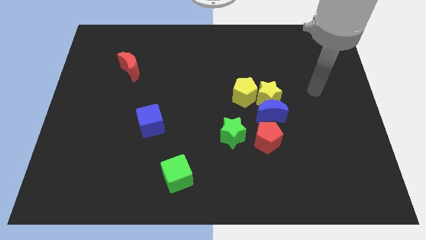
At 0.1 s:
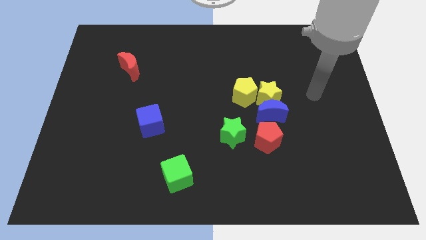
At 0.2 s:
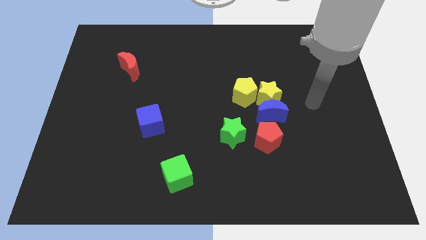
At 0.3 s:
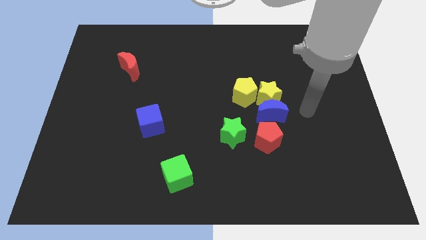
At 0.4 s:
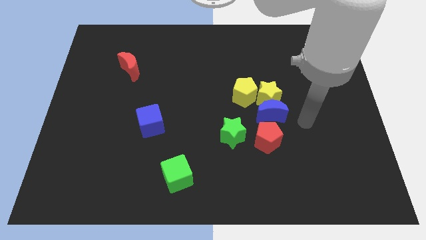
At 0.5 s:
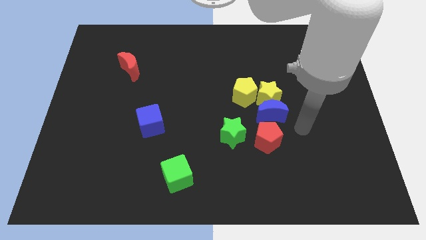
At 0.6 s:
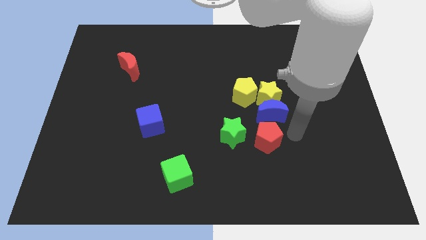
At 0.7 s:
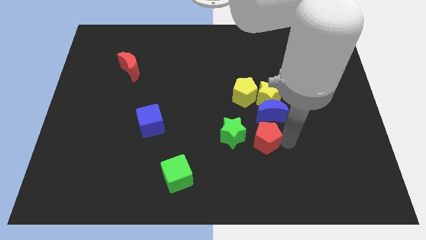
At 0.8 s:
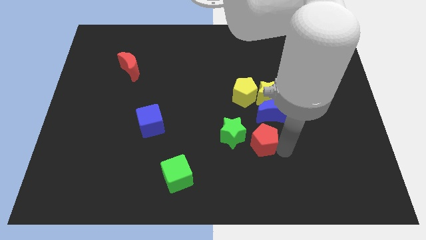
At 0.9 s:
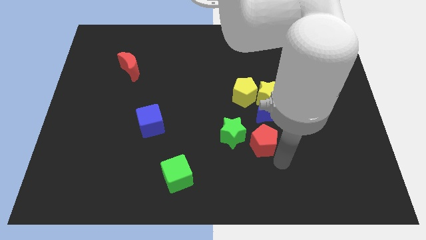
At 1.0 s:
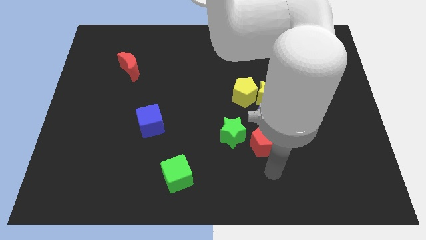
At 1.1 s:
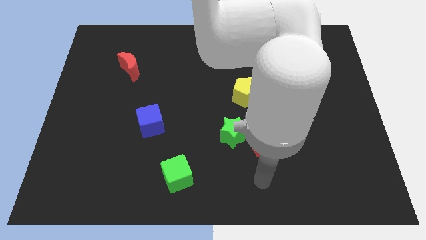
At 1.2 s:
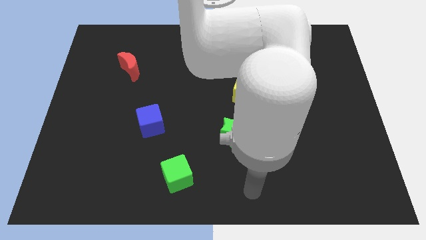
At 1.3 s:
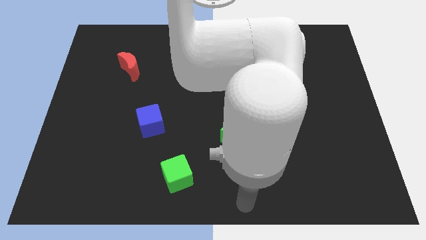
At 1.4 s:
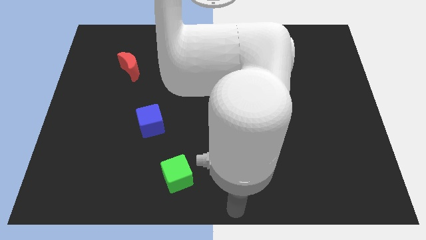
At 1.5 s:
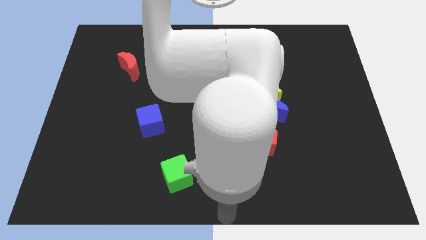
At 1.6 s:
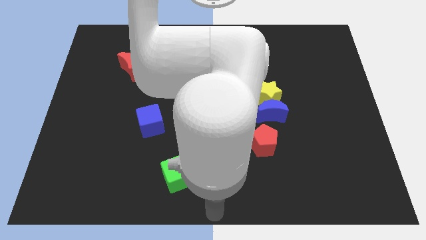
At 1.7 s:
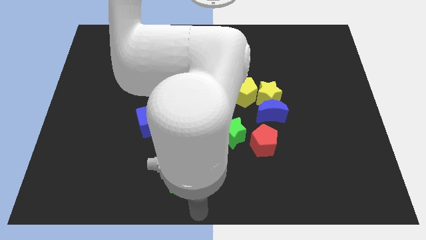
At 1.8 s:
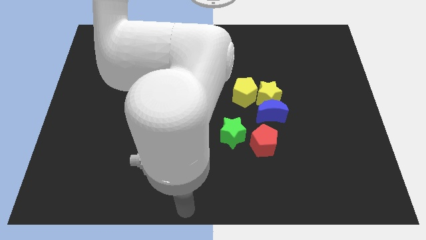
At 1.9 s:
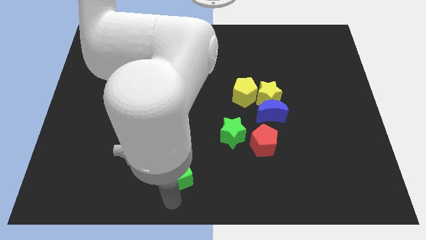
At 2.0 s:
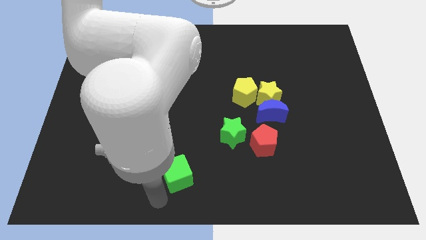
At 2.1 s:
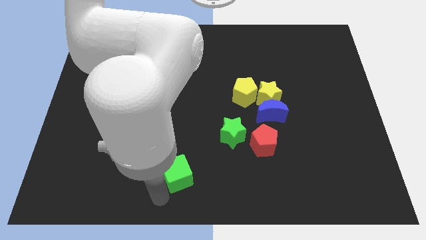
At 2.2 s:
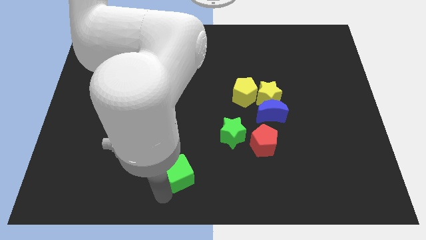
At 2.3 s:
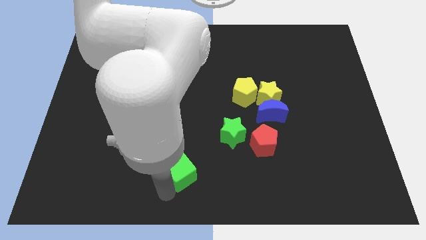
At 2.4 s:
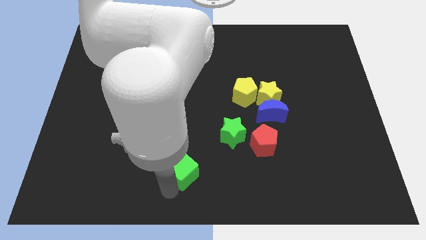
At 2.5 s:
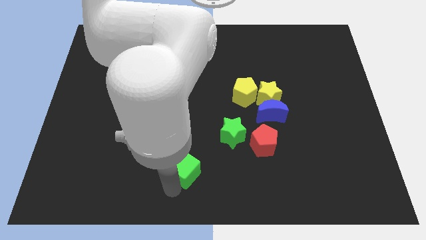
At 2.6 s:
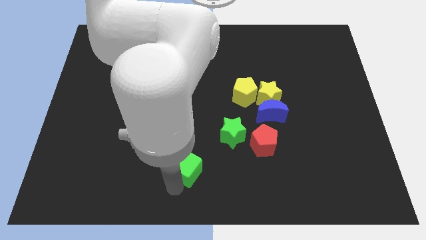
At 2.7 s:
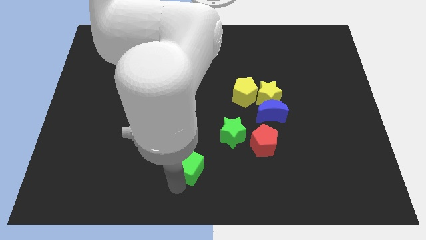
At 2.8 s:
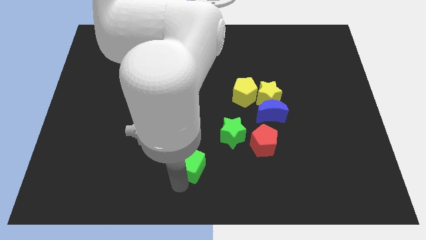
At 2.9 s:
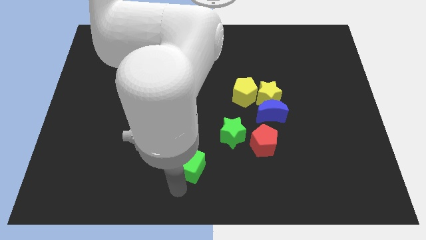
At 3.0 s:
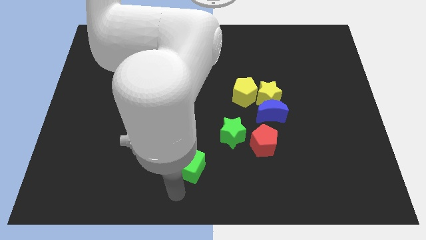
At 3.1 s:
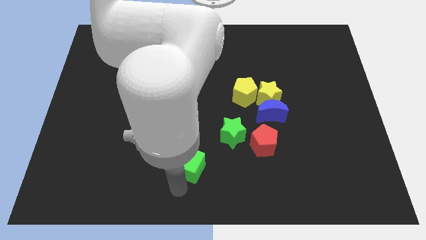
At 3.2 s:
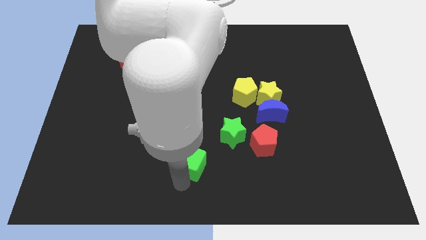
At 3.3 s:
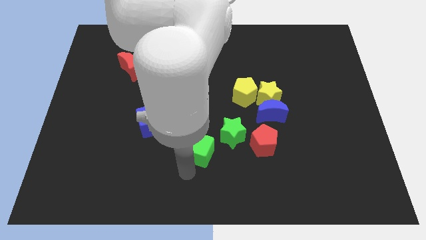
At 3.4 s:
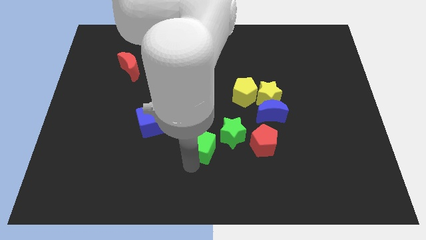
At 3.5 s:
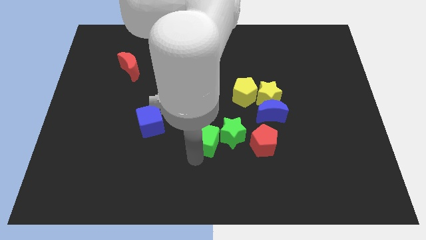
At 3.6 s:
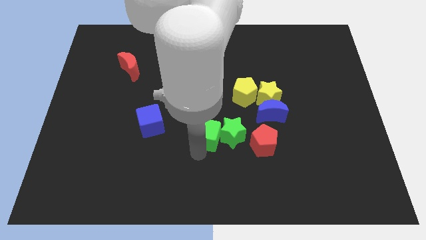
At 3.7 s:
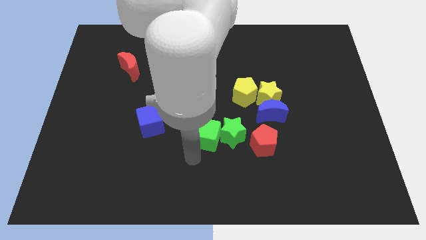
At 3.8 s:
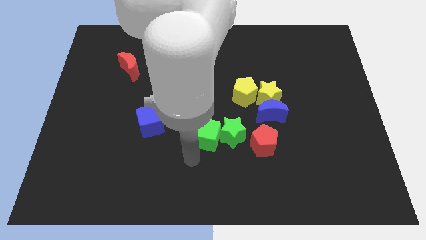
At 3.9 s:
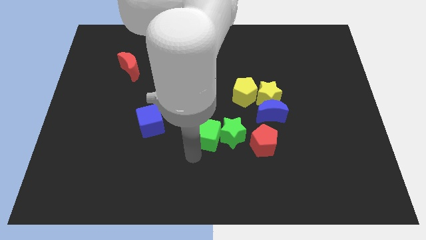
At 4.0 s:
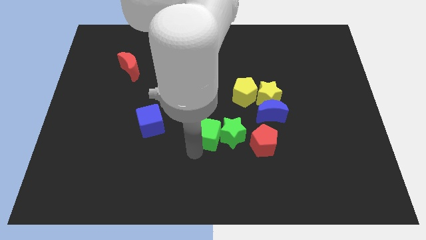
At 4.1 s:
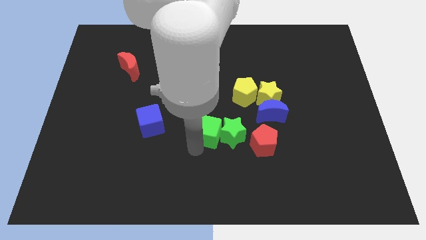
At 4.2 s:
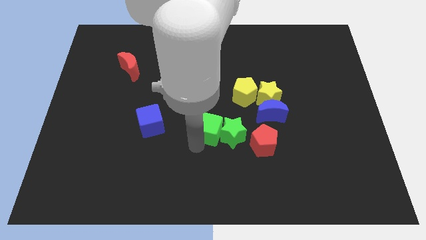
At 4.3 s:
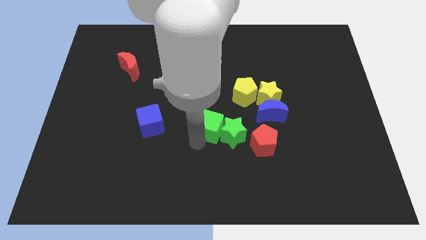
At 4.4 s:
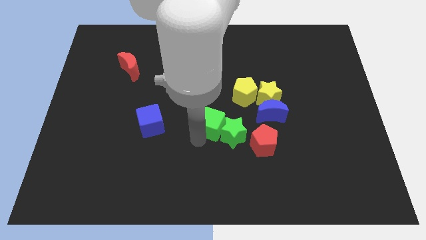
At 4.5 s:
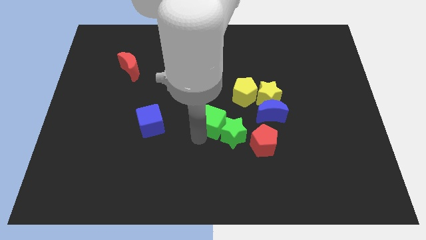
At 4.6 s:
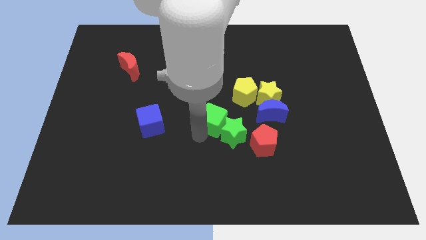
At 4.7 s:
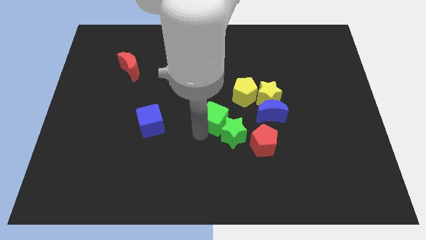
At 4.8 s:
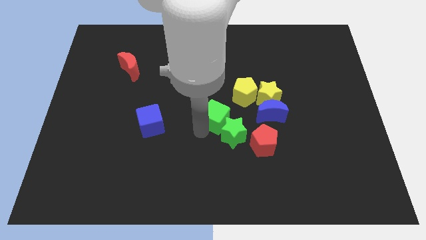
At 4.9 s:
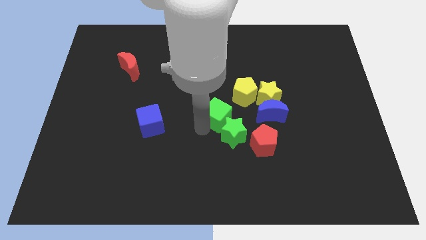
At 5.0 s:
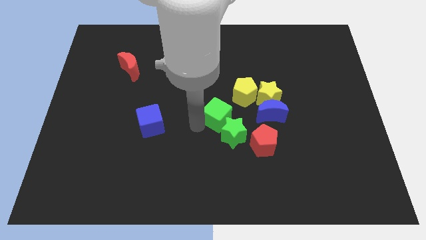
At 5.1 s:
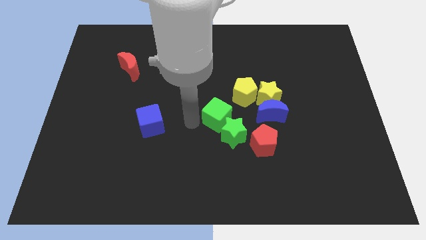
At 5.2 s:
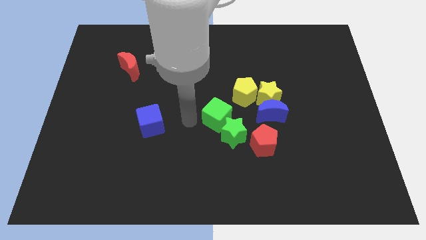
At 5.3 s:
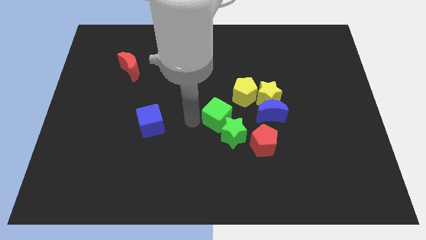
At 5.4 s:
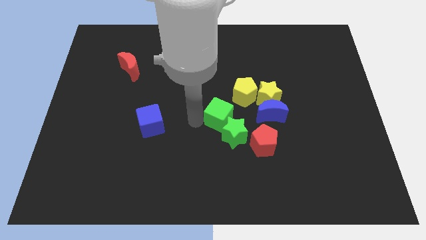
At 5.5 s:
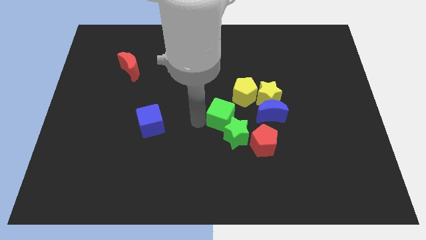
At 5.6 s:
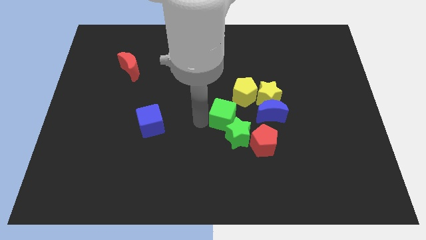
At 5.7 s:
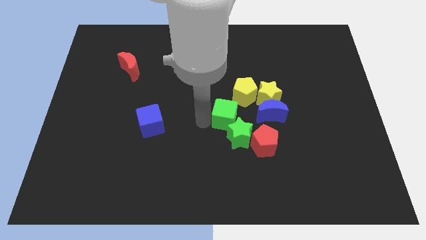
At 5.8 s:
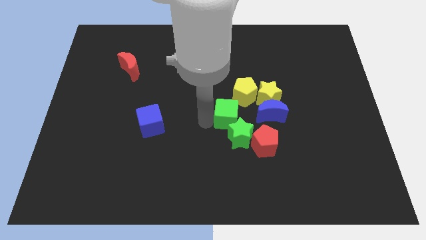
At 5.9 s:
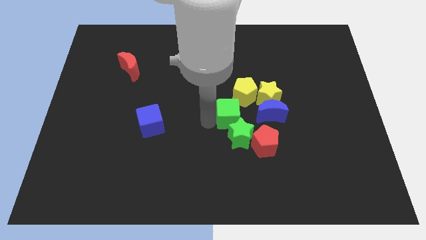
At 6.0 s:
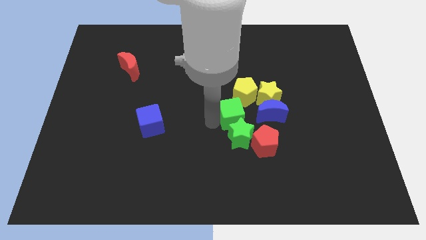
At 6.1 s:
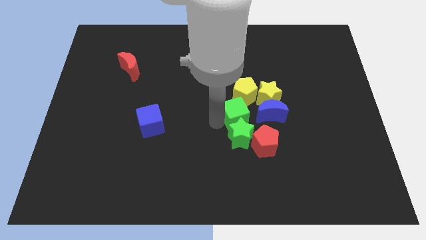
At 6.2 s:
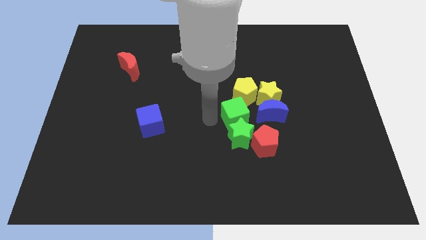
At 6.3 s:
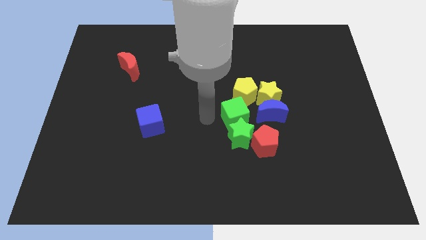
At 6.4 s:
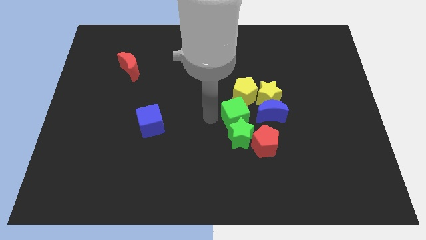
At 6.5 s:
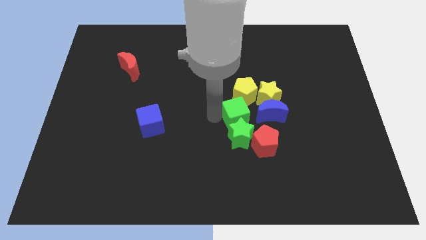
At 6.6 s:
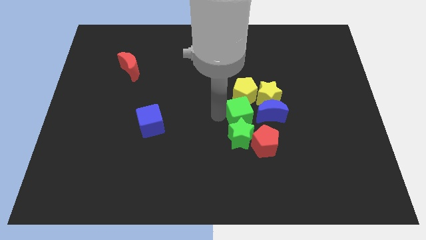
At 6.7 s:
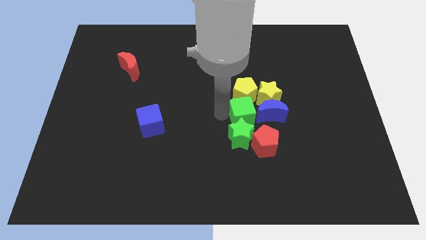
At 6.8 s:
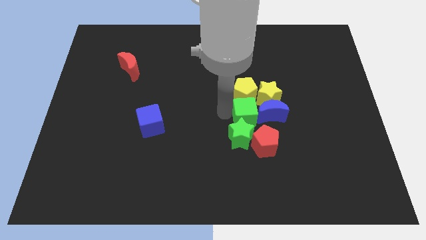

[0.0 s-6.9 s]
move the green cube next to the blue moon

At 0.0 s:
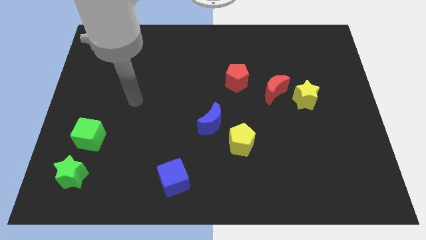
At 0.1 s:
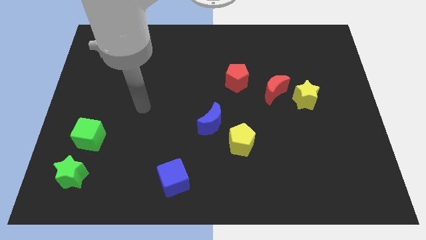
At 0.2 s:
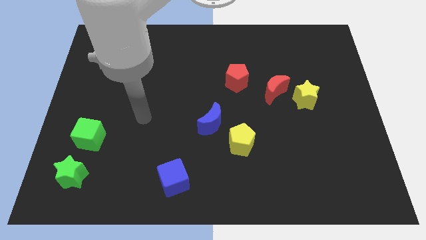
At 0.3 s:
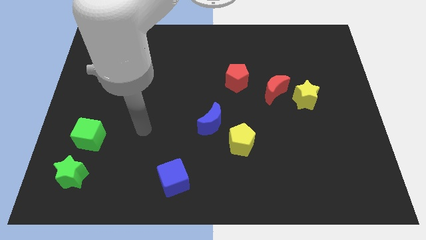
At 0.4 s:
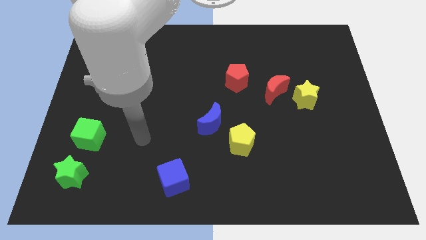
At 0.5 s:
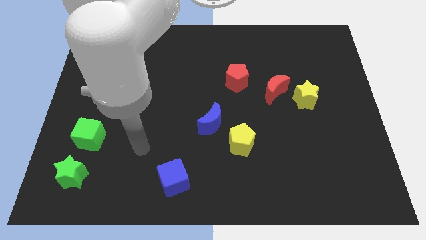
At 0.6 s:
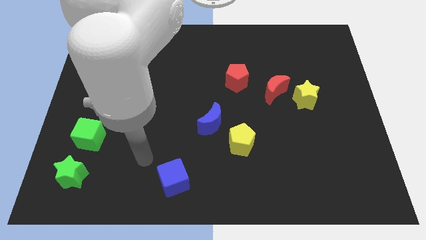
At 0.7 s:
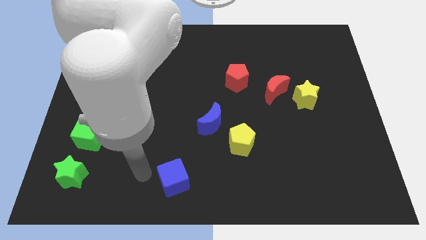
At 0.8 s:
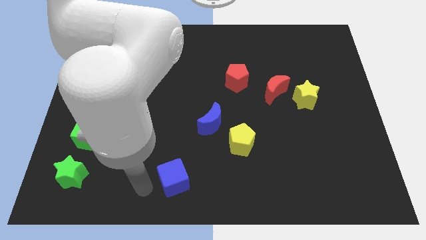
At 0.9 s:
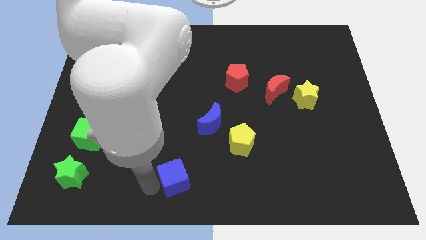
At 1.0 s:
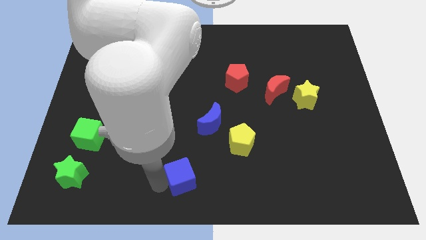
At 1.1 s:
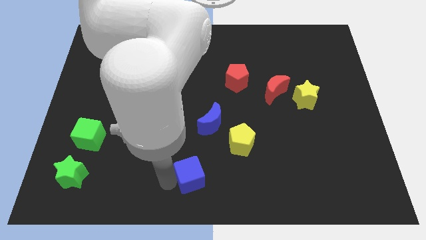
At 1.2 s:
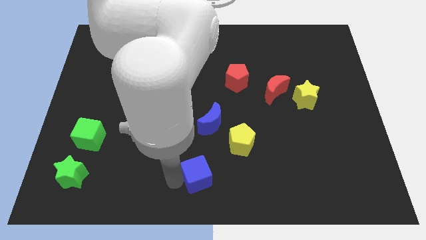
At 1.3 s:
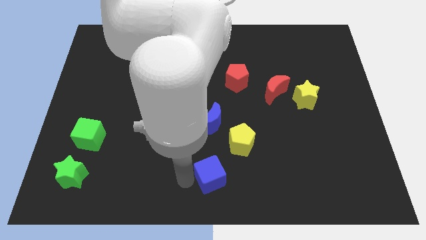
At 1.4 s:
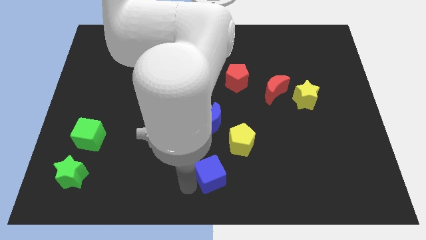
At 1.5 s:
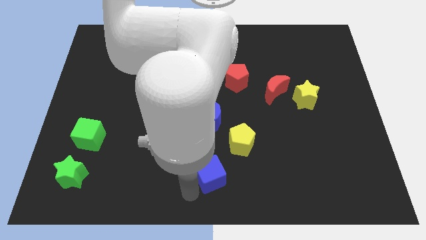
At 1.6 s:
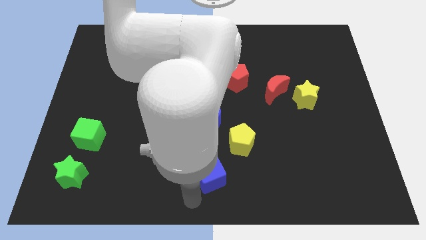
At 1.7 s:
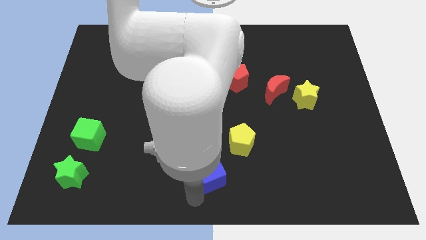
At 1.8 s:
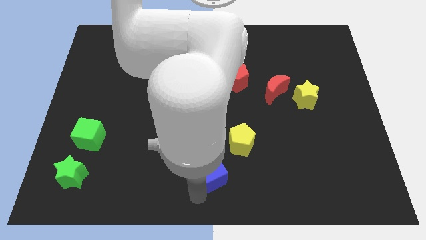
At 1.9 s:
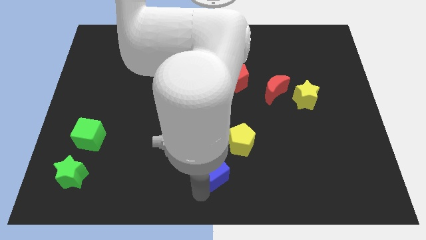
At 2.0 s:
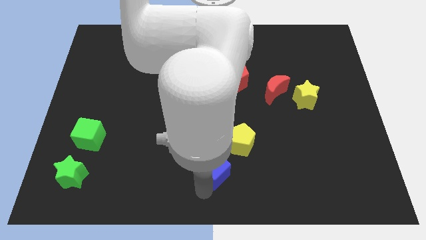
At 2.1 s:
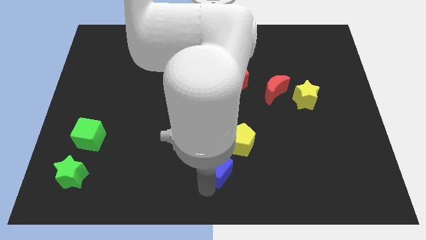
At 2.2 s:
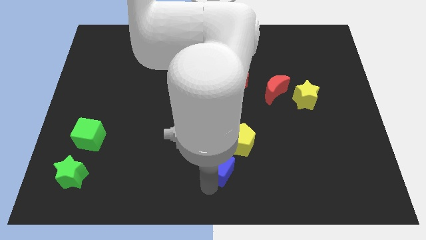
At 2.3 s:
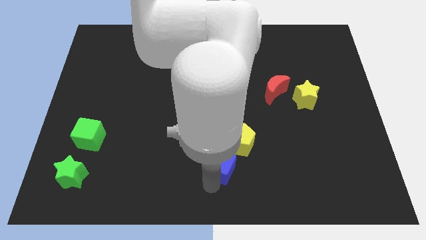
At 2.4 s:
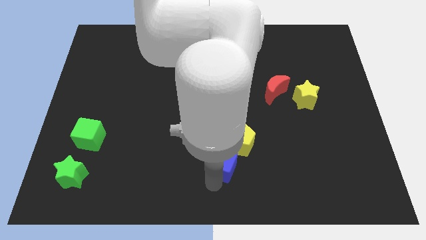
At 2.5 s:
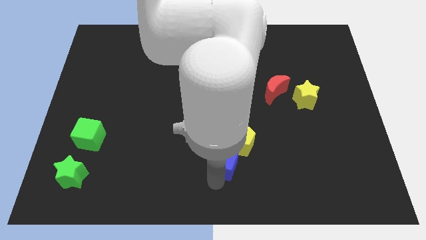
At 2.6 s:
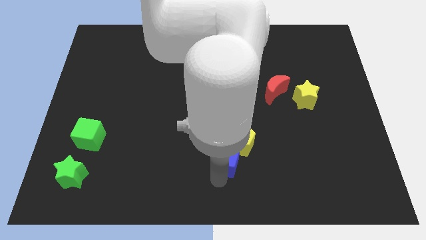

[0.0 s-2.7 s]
put the blue cube towards the yellow pentagon
